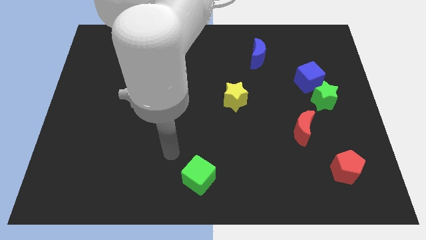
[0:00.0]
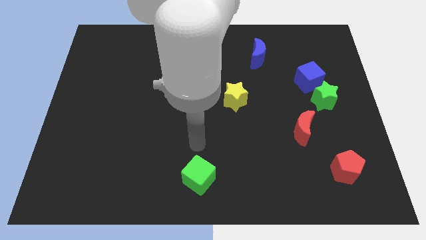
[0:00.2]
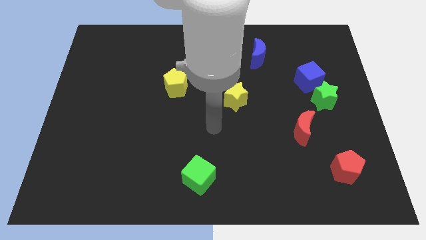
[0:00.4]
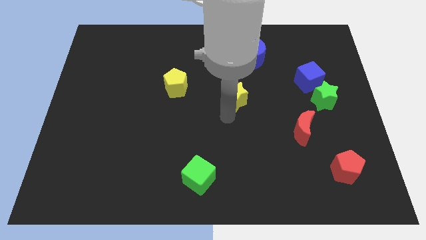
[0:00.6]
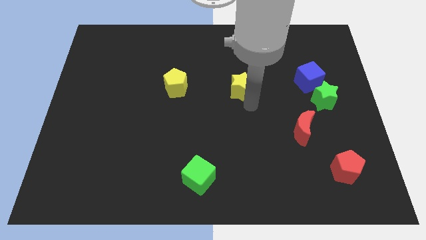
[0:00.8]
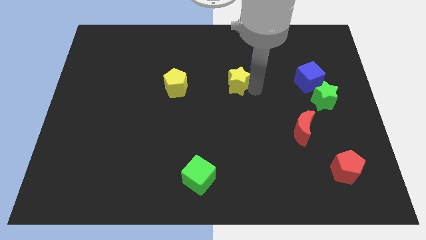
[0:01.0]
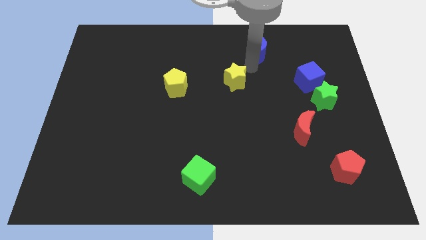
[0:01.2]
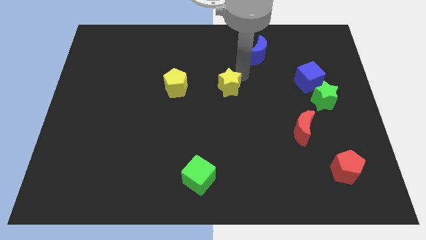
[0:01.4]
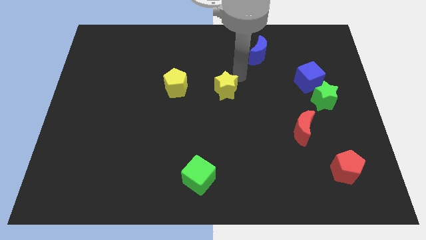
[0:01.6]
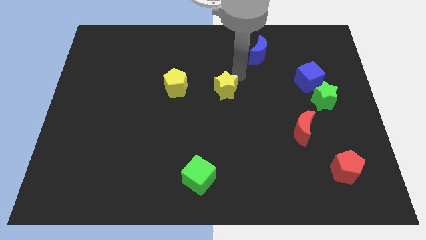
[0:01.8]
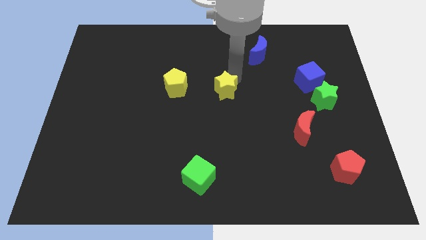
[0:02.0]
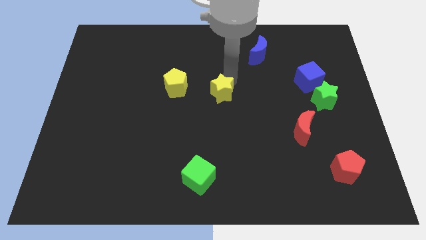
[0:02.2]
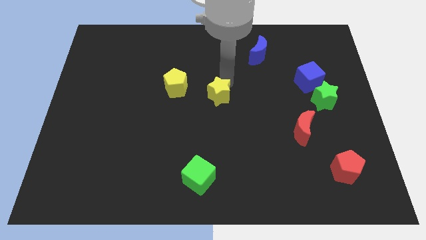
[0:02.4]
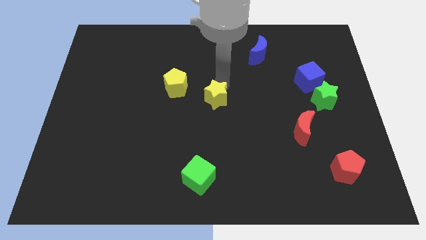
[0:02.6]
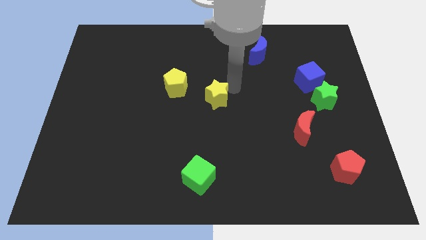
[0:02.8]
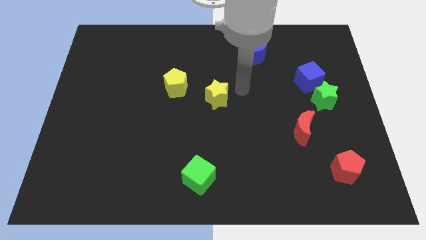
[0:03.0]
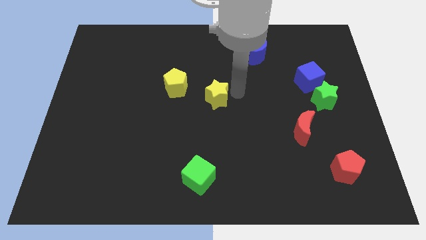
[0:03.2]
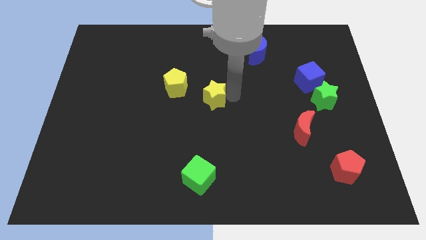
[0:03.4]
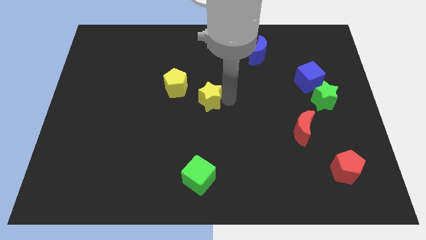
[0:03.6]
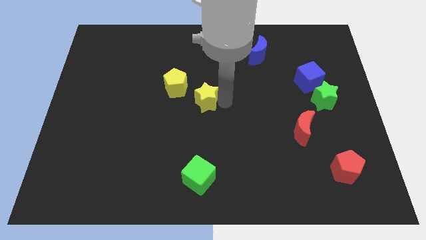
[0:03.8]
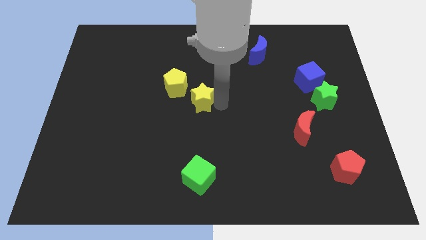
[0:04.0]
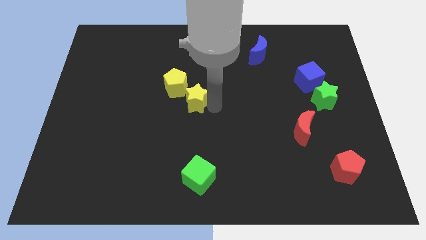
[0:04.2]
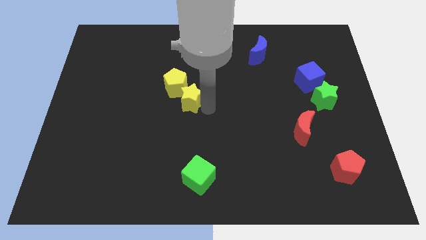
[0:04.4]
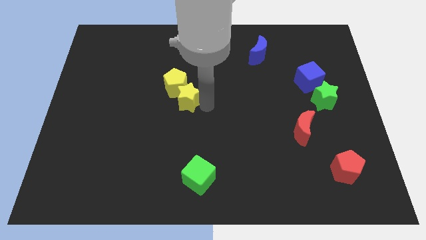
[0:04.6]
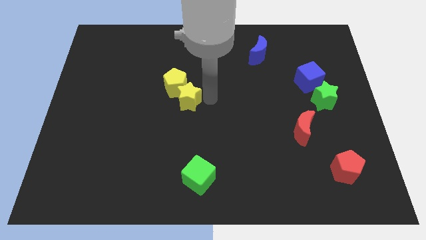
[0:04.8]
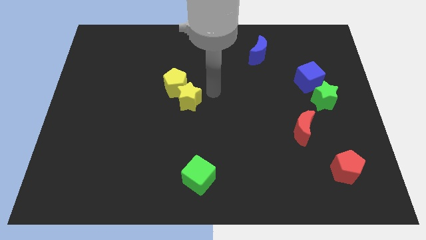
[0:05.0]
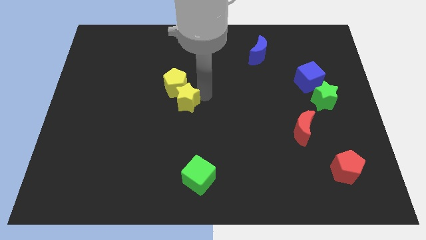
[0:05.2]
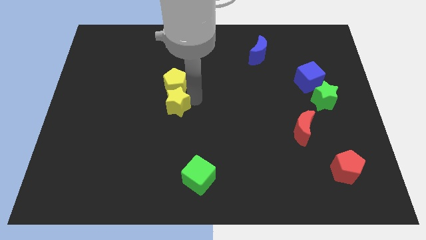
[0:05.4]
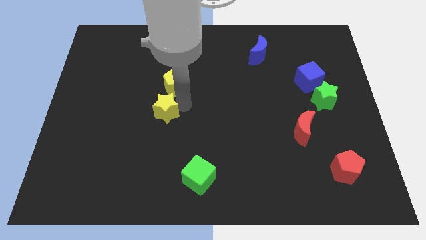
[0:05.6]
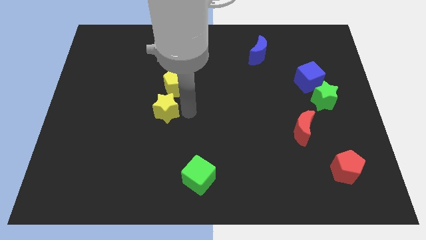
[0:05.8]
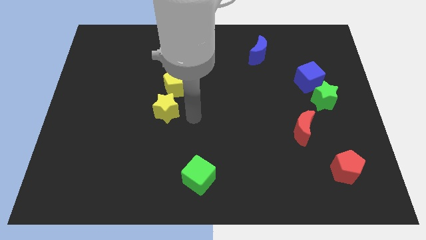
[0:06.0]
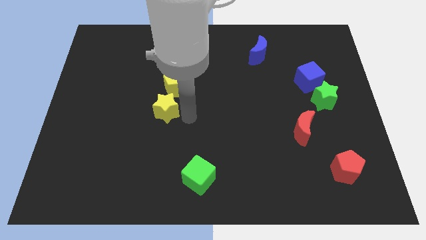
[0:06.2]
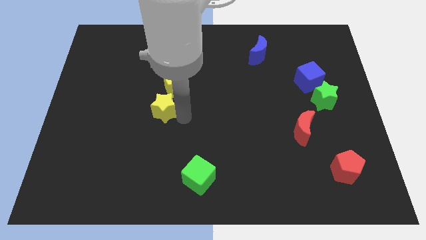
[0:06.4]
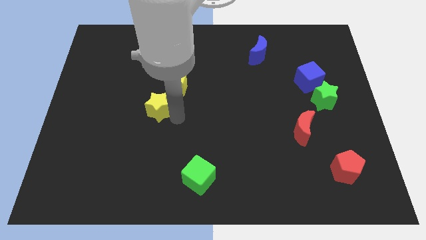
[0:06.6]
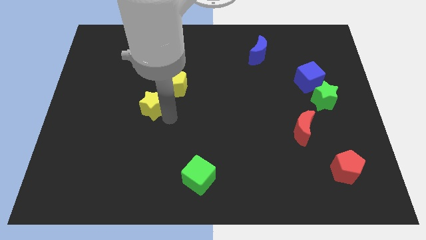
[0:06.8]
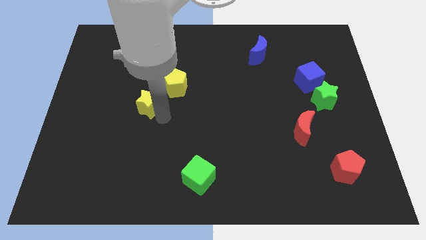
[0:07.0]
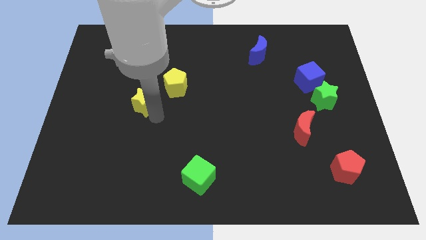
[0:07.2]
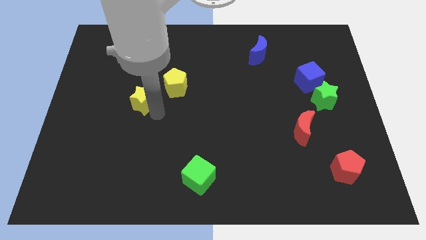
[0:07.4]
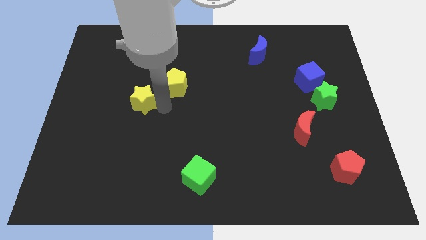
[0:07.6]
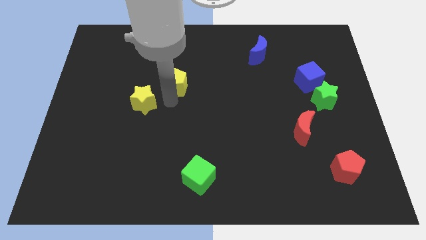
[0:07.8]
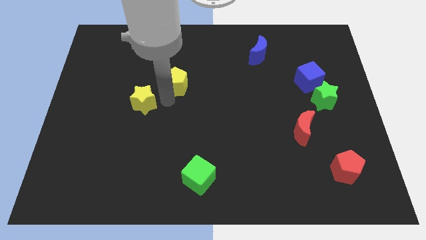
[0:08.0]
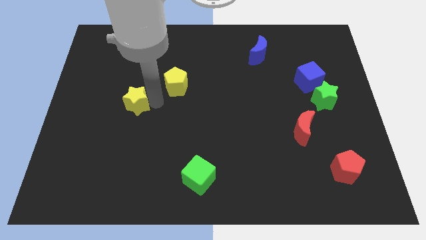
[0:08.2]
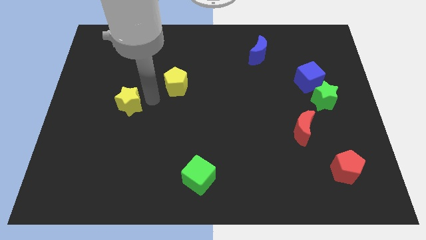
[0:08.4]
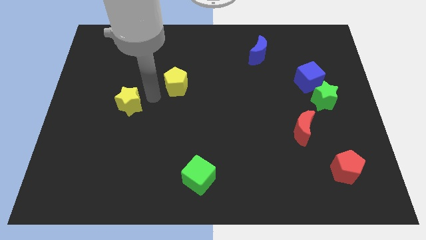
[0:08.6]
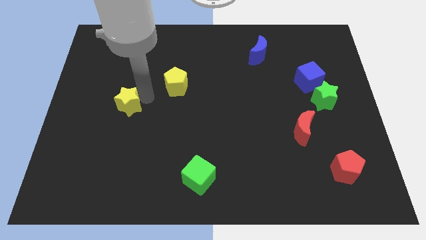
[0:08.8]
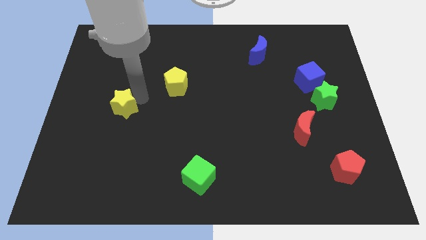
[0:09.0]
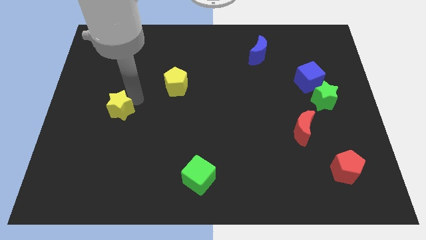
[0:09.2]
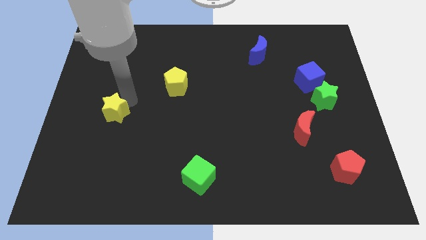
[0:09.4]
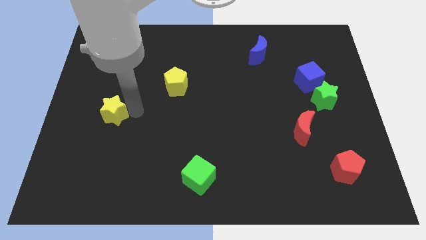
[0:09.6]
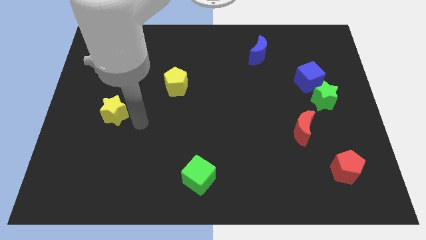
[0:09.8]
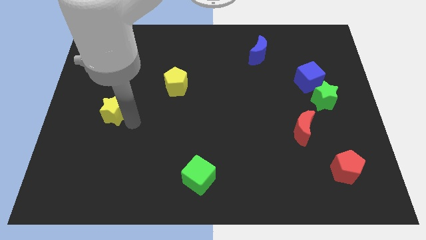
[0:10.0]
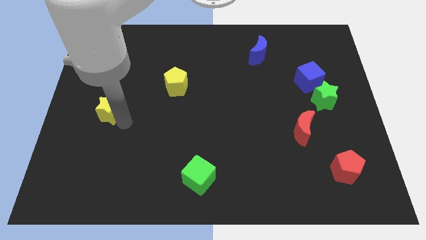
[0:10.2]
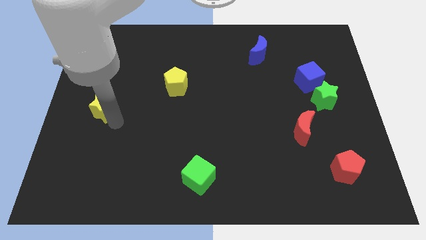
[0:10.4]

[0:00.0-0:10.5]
slide the yellow star to the left side of the board

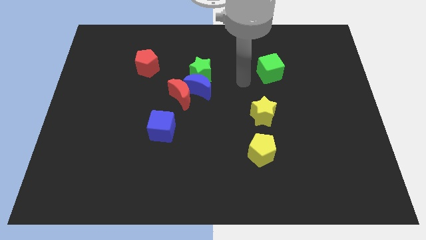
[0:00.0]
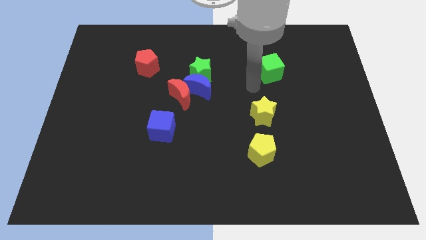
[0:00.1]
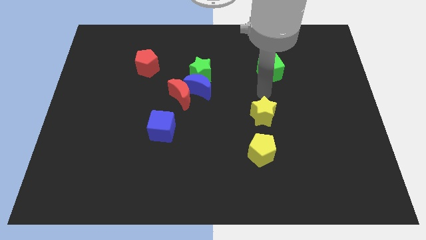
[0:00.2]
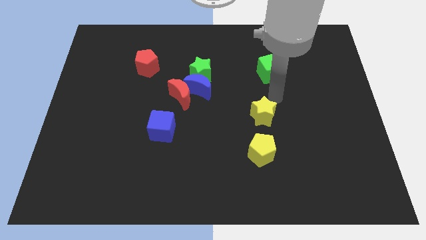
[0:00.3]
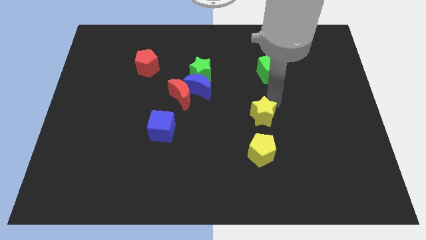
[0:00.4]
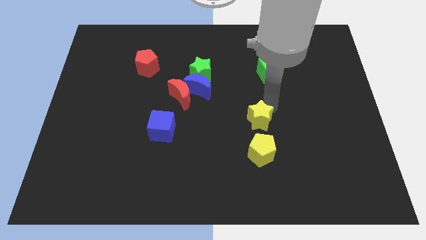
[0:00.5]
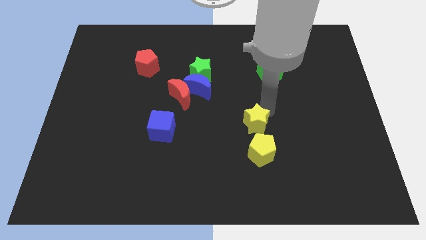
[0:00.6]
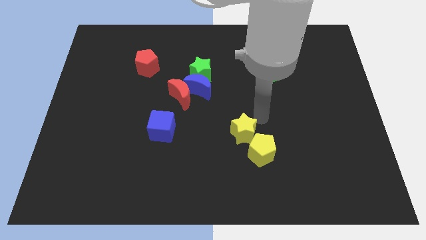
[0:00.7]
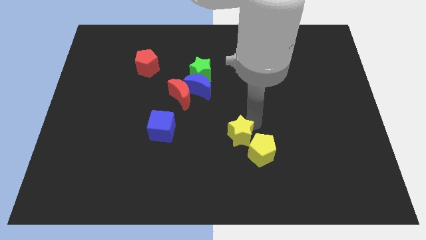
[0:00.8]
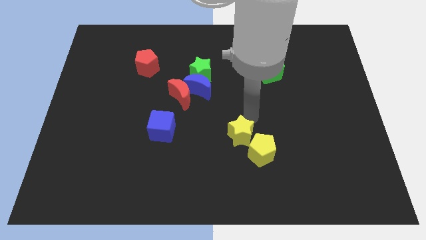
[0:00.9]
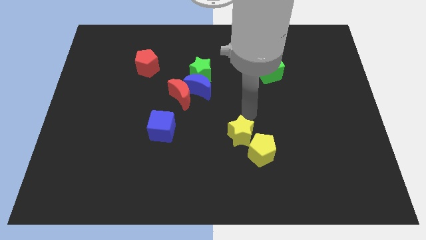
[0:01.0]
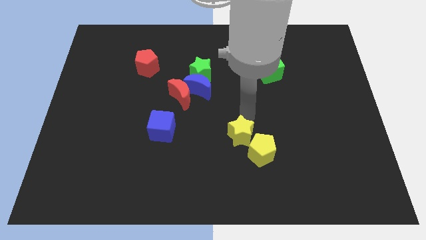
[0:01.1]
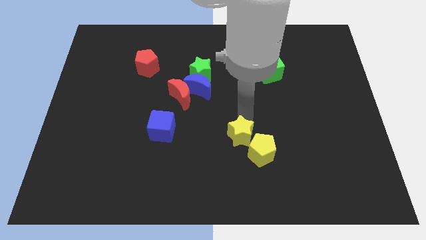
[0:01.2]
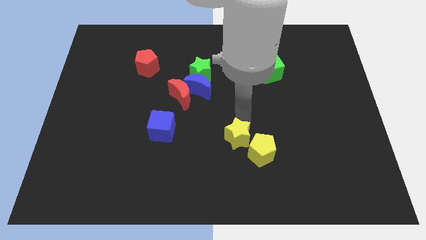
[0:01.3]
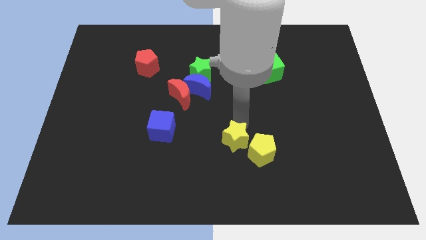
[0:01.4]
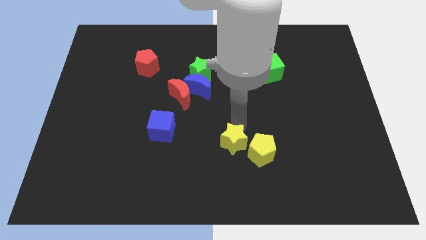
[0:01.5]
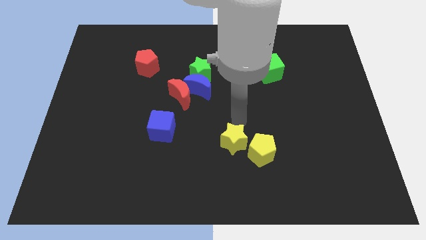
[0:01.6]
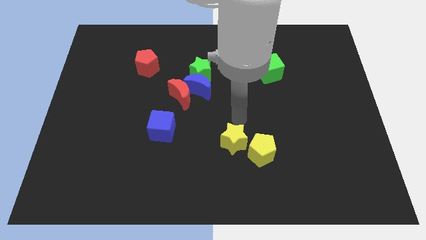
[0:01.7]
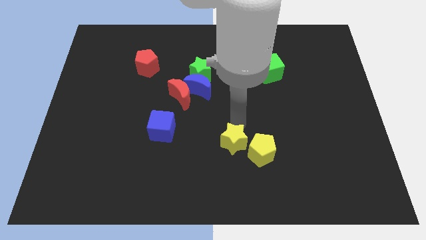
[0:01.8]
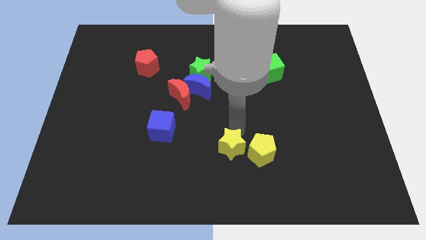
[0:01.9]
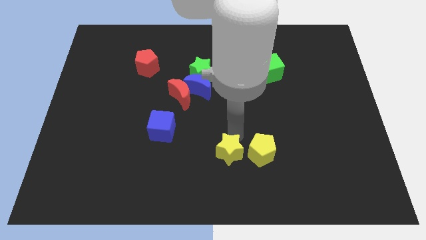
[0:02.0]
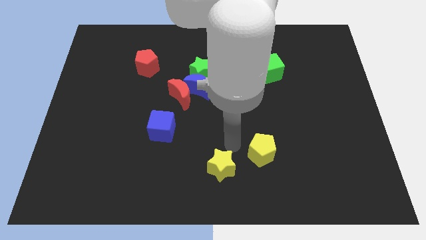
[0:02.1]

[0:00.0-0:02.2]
slide the yellow star to the bottom

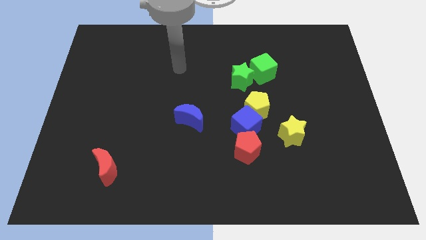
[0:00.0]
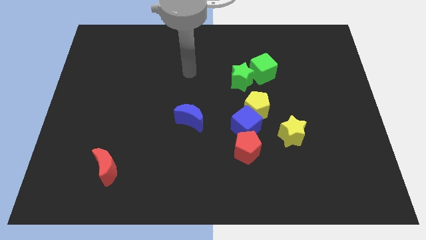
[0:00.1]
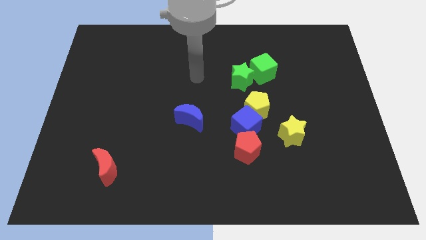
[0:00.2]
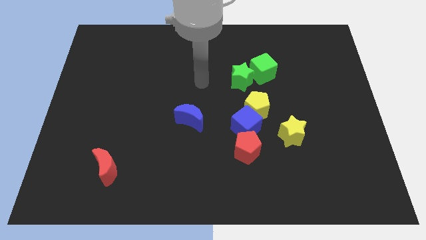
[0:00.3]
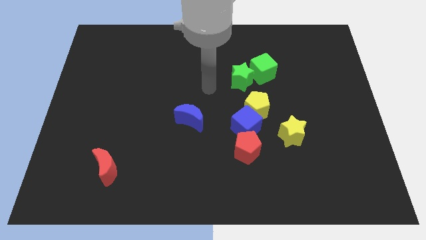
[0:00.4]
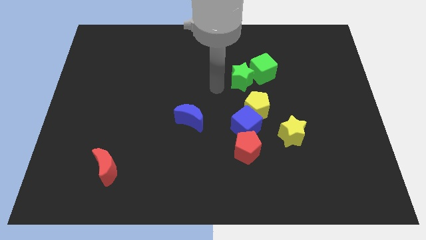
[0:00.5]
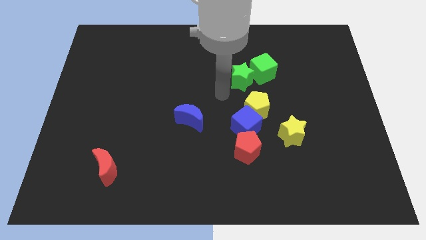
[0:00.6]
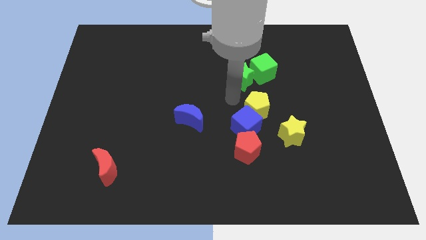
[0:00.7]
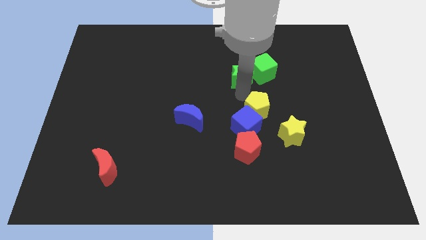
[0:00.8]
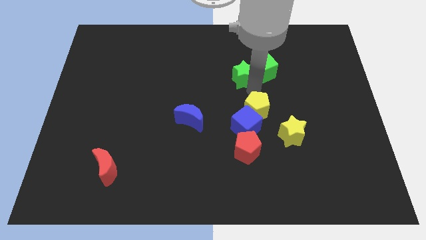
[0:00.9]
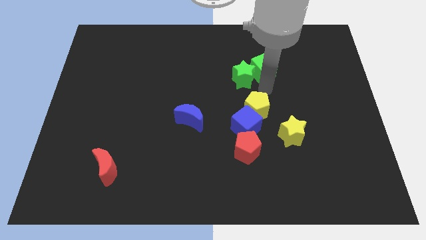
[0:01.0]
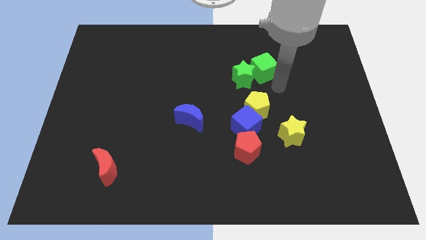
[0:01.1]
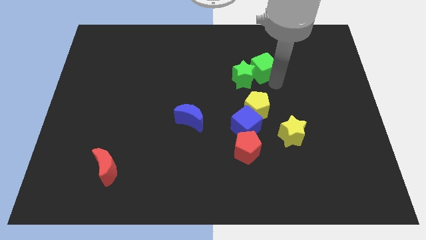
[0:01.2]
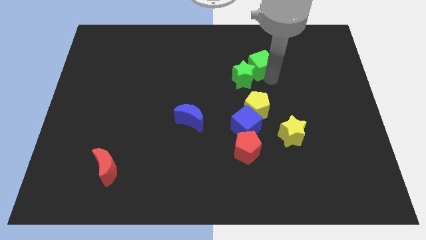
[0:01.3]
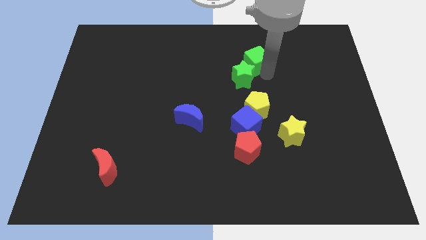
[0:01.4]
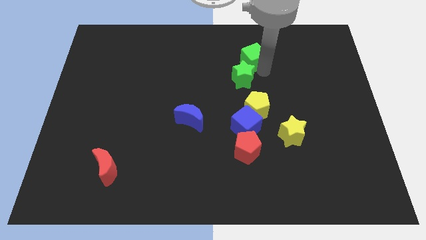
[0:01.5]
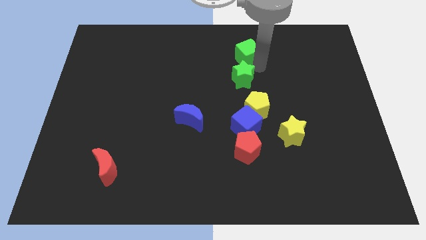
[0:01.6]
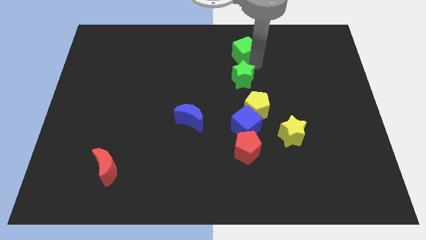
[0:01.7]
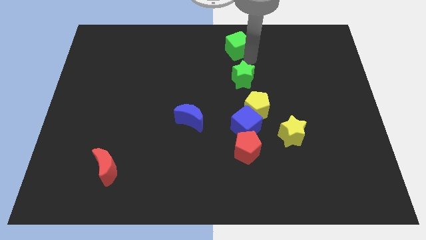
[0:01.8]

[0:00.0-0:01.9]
move the green cube to the top side
